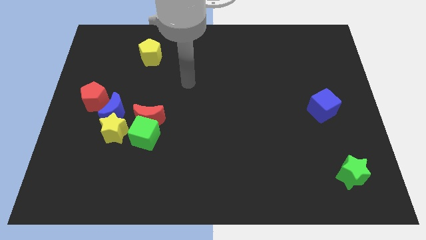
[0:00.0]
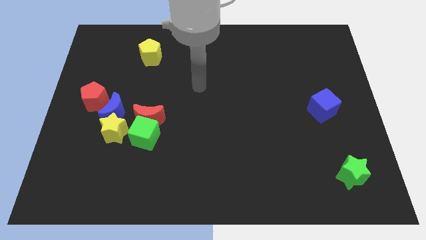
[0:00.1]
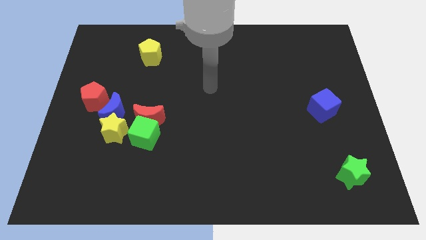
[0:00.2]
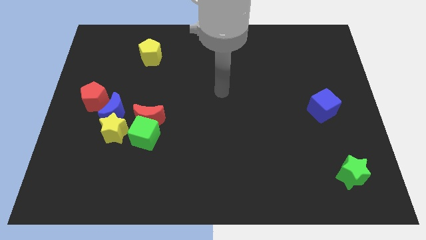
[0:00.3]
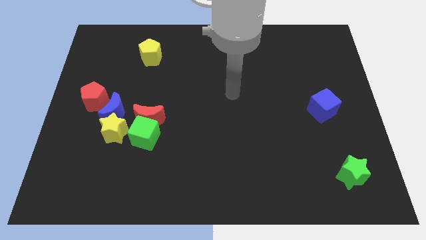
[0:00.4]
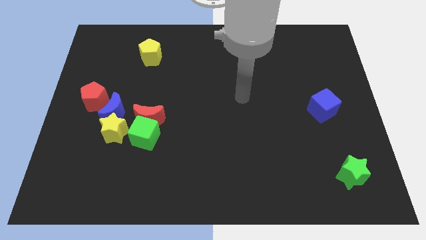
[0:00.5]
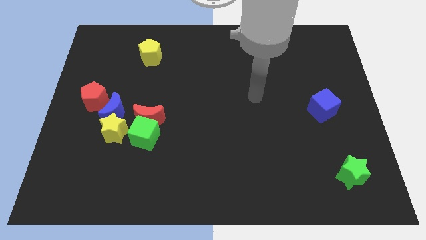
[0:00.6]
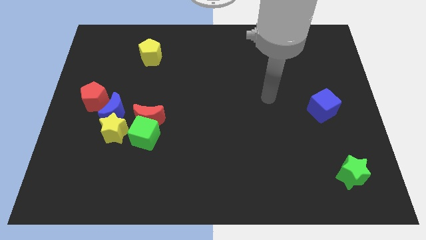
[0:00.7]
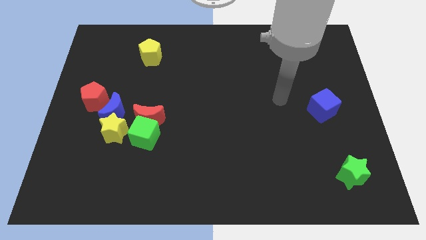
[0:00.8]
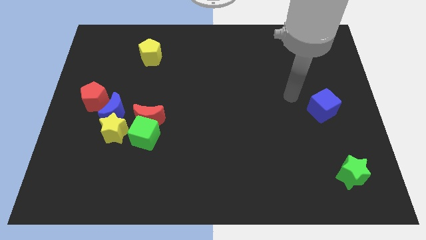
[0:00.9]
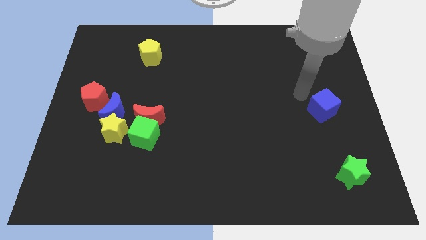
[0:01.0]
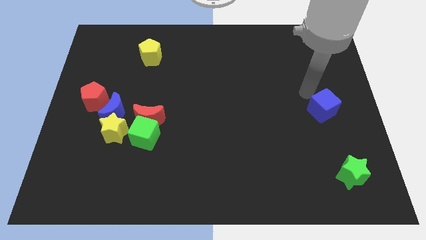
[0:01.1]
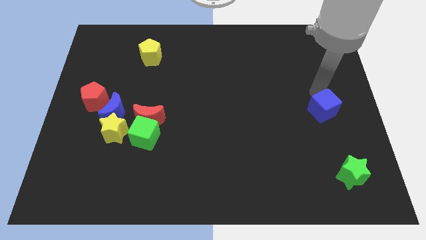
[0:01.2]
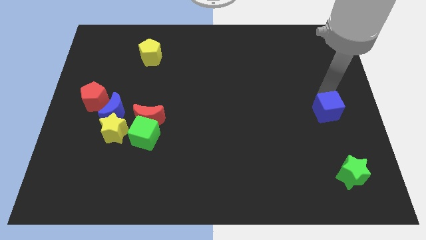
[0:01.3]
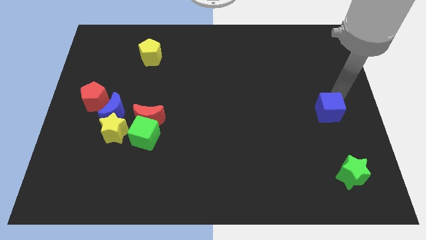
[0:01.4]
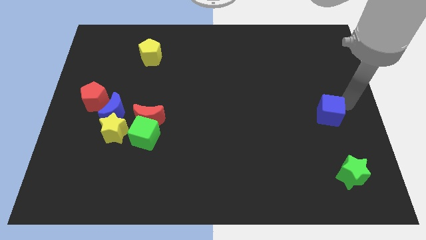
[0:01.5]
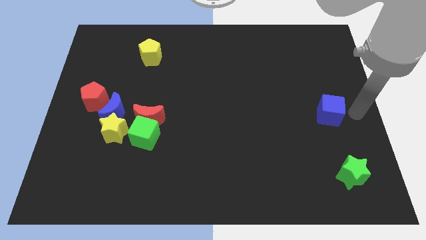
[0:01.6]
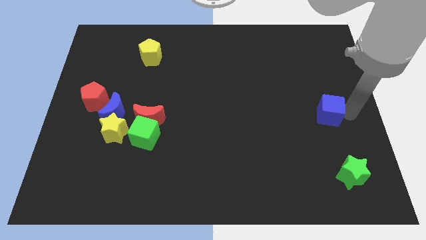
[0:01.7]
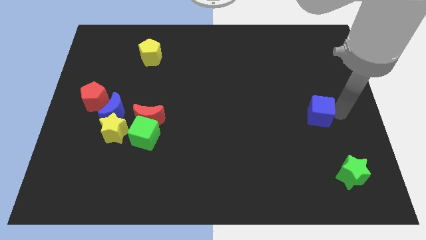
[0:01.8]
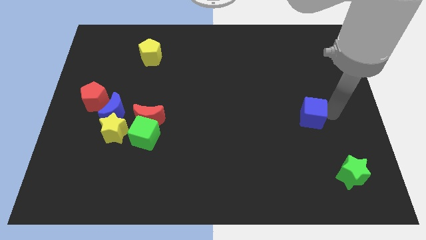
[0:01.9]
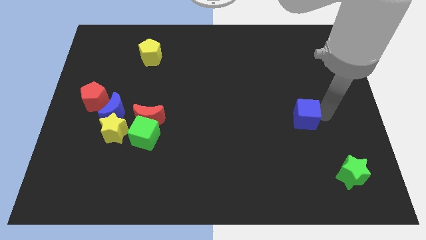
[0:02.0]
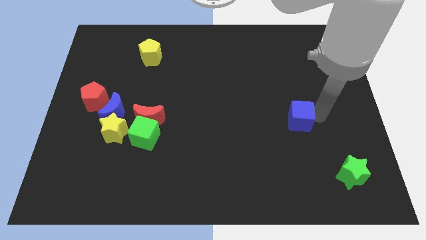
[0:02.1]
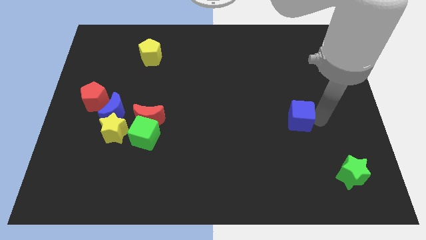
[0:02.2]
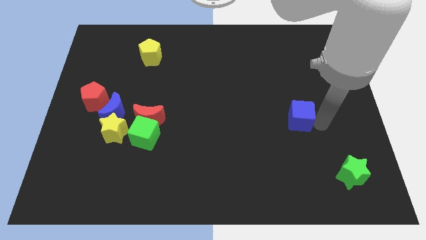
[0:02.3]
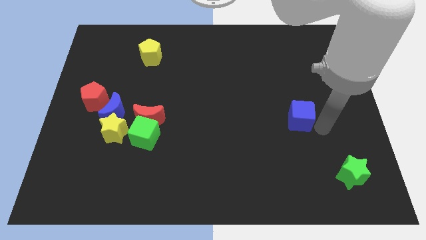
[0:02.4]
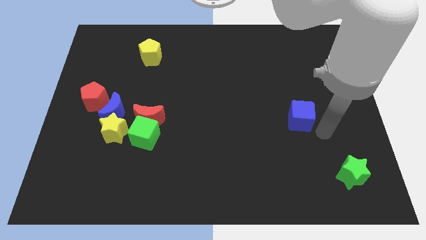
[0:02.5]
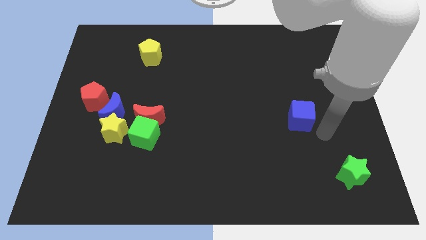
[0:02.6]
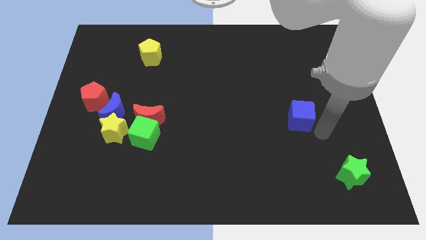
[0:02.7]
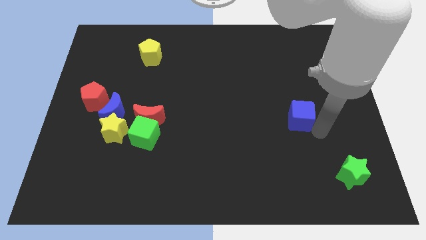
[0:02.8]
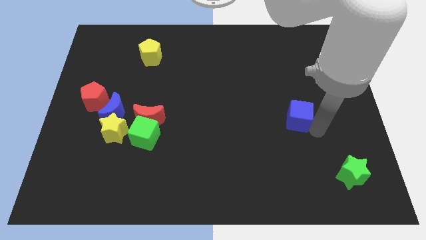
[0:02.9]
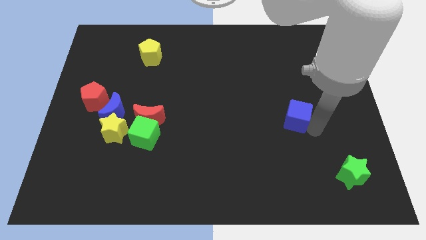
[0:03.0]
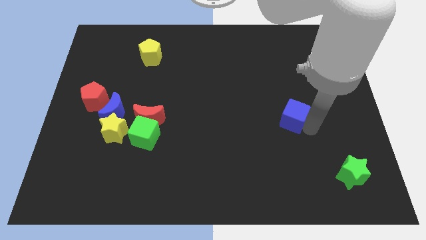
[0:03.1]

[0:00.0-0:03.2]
move the blue cube a bit to the left

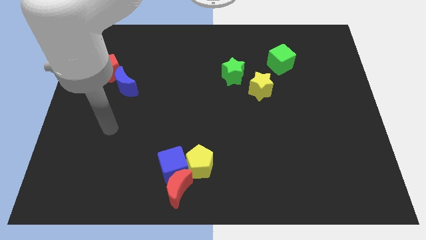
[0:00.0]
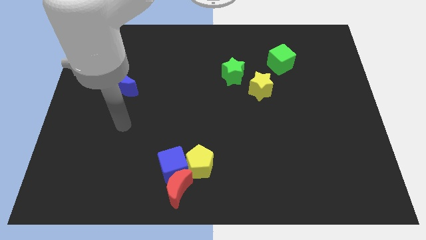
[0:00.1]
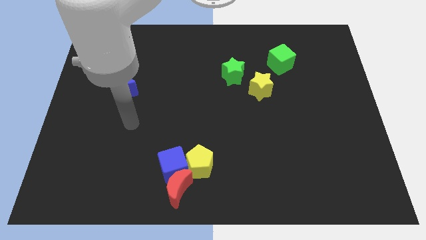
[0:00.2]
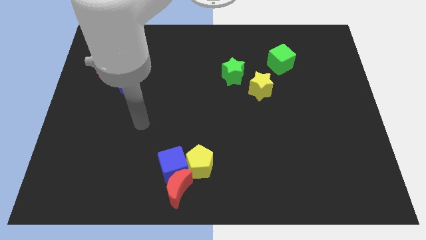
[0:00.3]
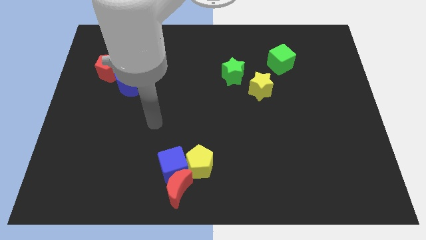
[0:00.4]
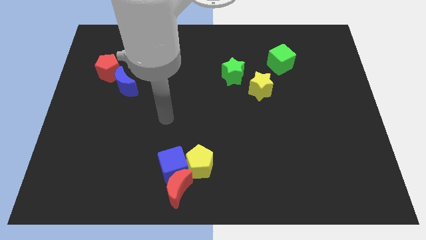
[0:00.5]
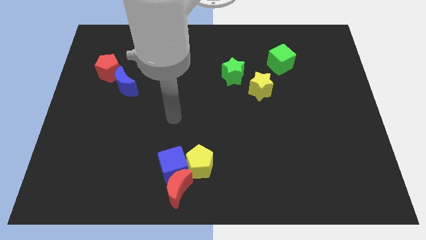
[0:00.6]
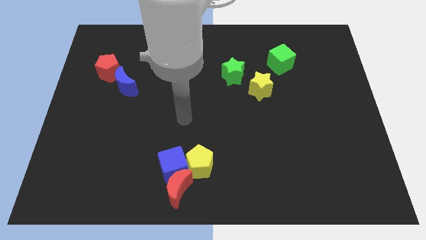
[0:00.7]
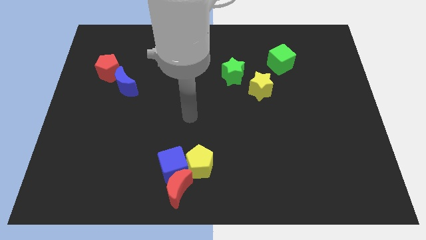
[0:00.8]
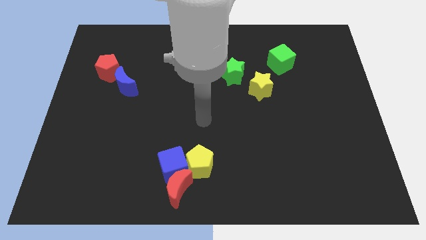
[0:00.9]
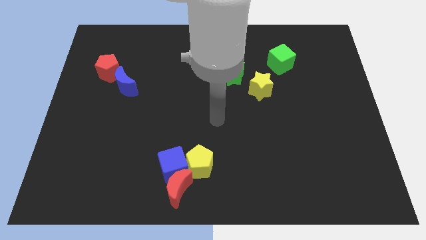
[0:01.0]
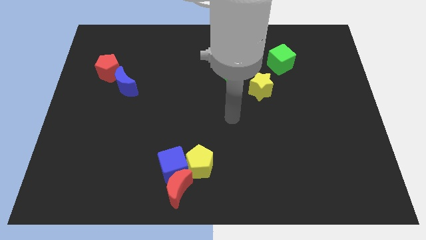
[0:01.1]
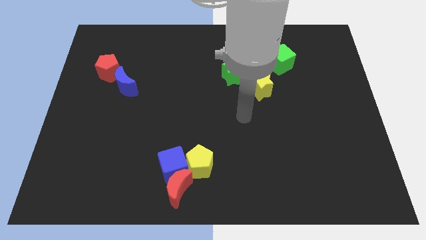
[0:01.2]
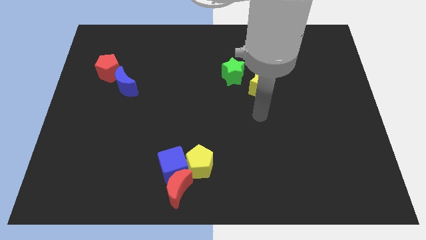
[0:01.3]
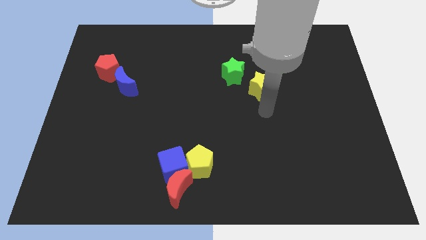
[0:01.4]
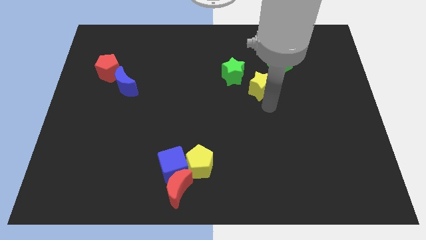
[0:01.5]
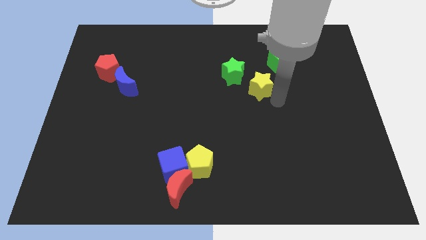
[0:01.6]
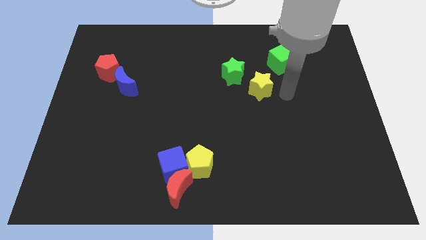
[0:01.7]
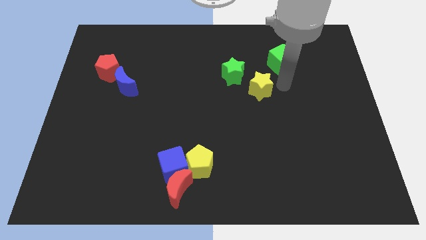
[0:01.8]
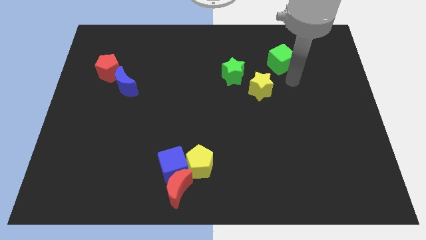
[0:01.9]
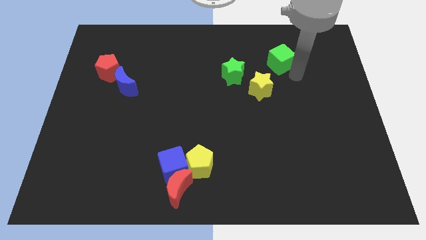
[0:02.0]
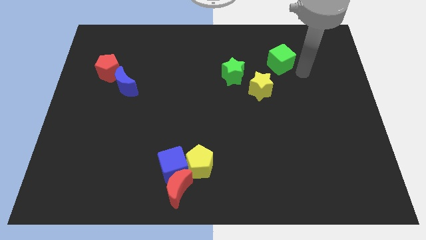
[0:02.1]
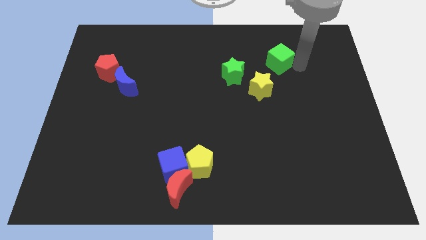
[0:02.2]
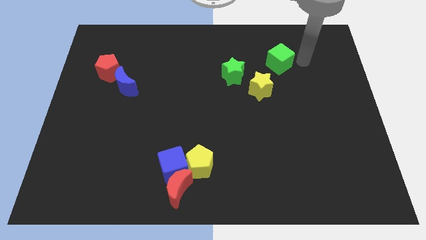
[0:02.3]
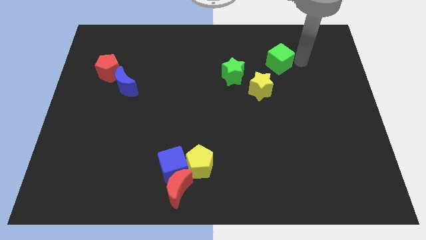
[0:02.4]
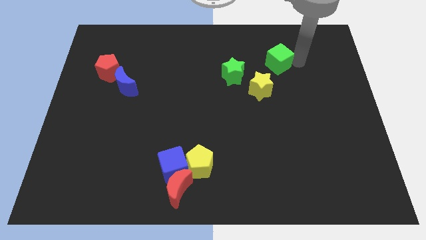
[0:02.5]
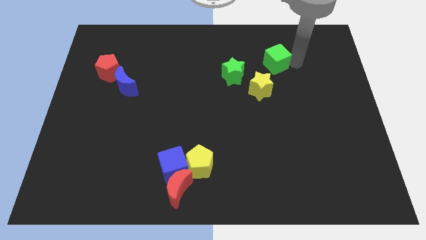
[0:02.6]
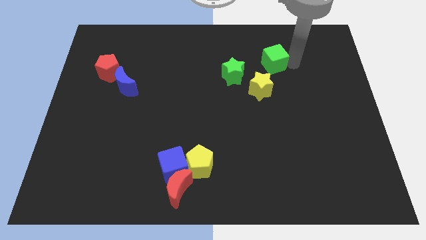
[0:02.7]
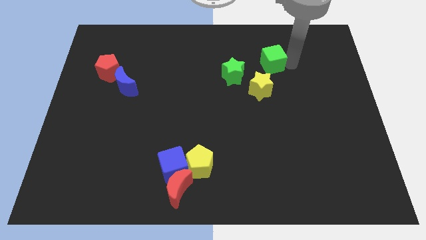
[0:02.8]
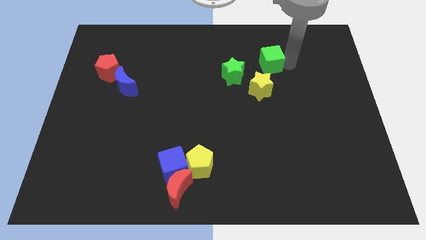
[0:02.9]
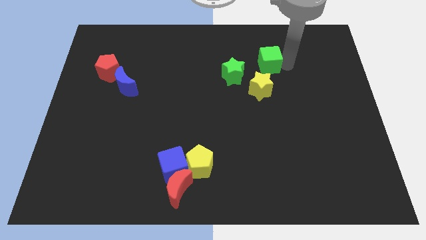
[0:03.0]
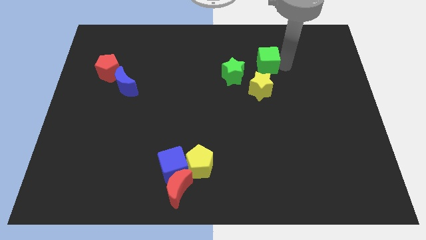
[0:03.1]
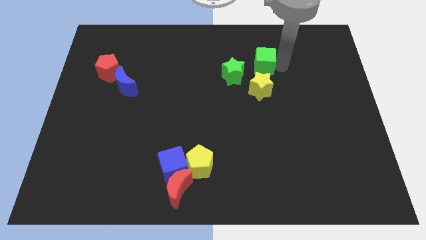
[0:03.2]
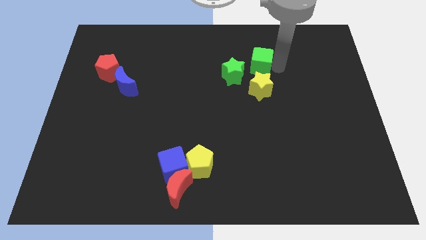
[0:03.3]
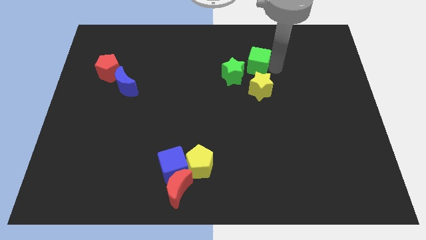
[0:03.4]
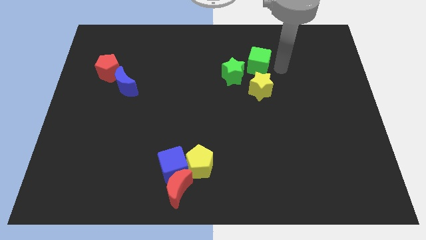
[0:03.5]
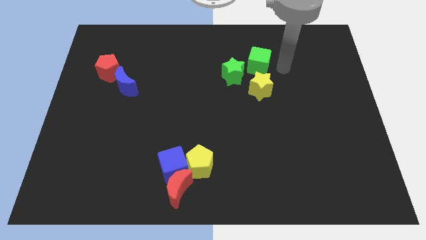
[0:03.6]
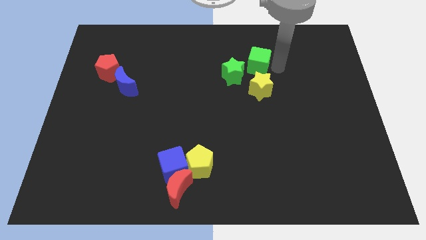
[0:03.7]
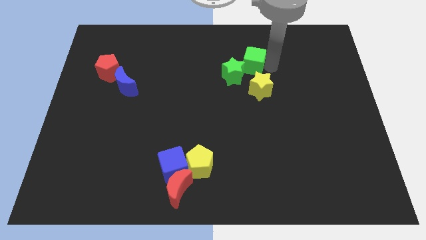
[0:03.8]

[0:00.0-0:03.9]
push the green cube left somewhat

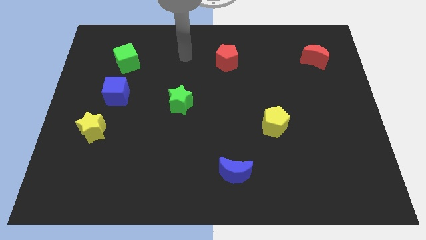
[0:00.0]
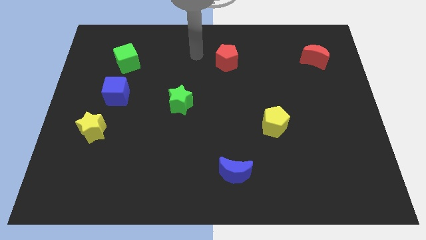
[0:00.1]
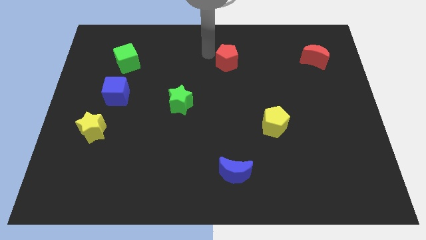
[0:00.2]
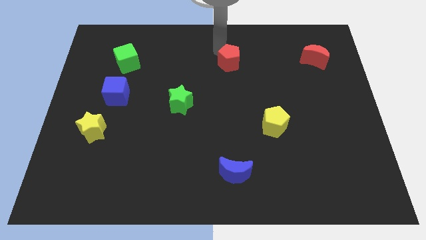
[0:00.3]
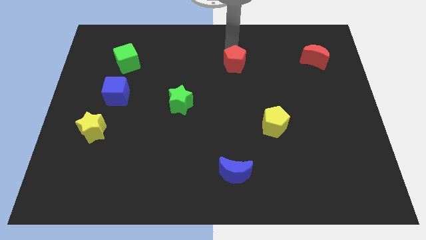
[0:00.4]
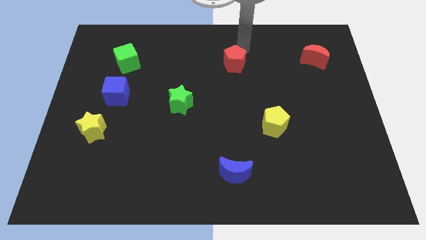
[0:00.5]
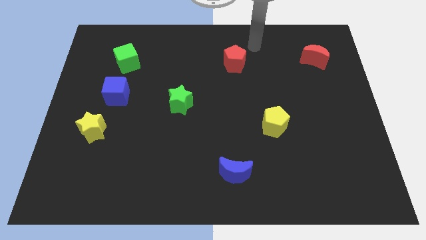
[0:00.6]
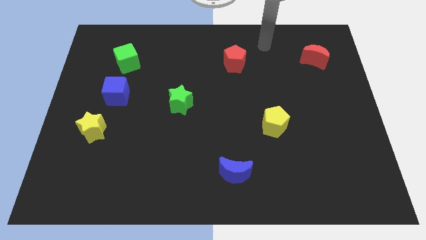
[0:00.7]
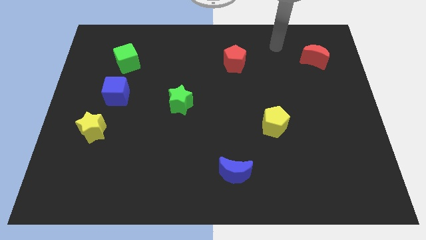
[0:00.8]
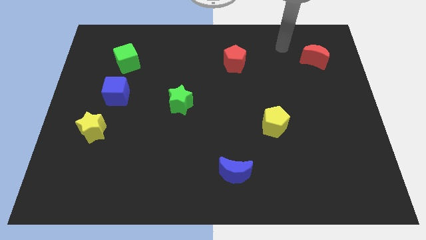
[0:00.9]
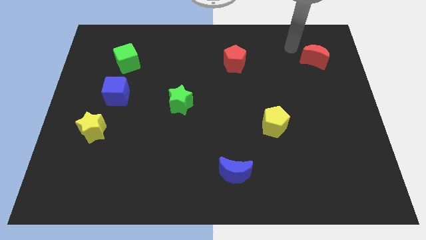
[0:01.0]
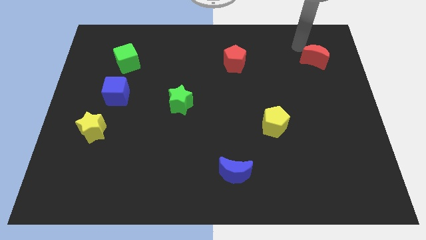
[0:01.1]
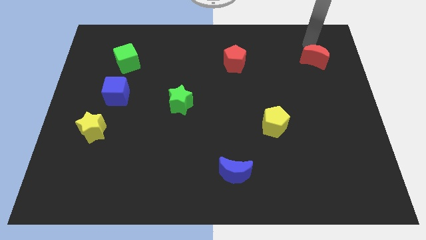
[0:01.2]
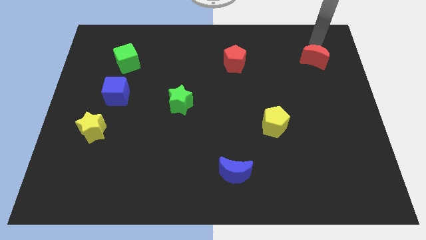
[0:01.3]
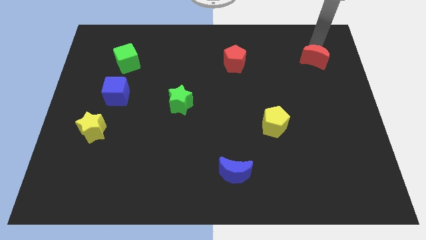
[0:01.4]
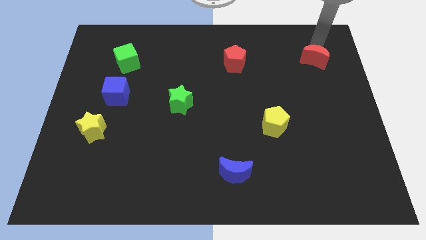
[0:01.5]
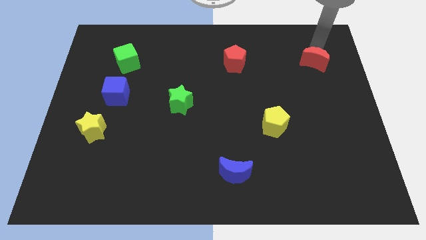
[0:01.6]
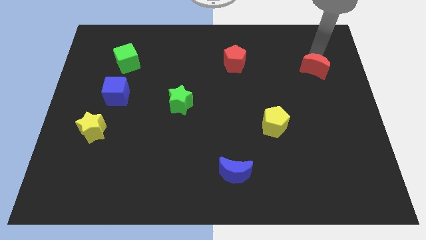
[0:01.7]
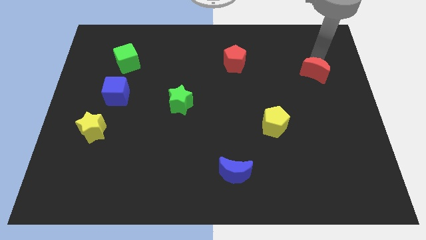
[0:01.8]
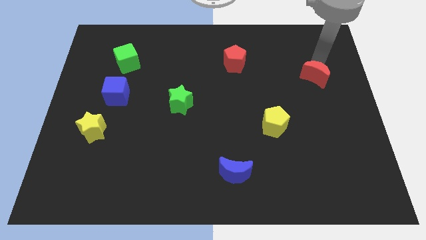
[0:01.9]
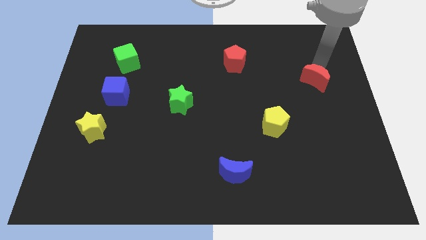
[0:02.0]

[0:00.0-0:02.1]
slightly slide the red moon down
